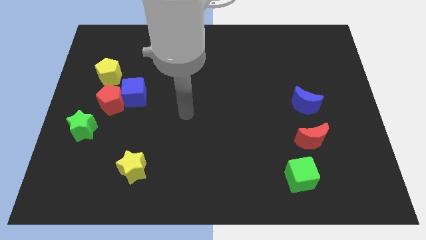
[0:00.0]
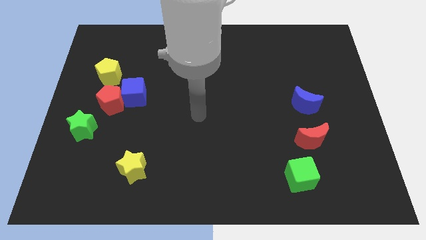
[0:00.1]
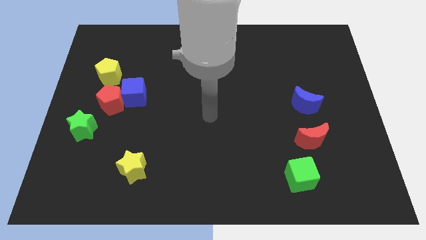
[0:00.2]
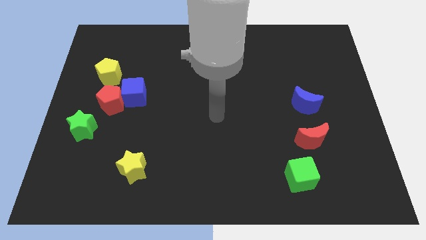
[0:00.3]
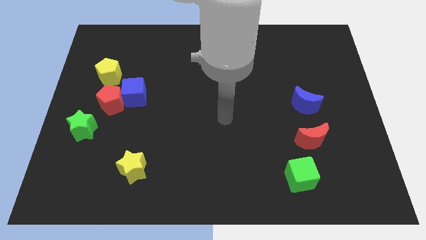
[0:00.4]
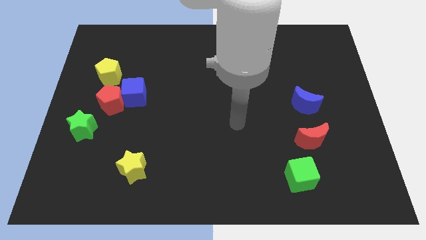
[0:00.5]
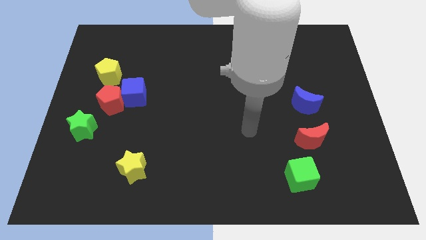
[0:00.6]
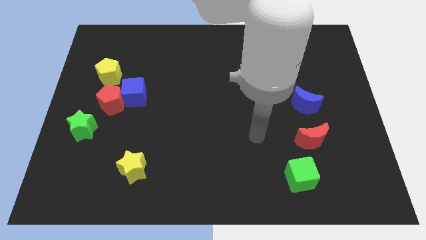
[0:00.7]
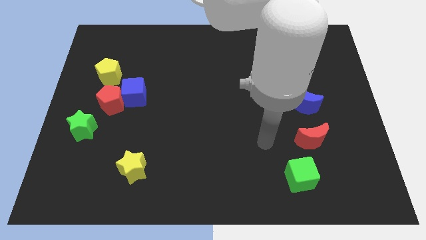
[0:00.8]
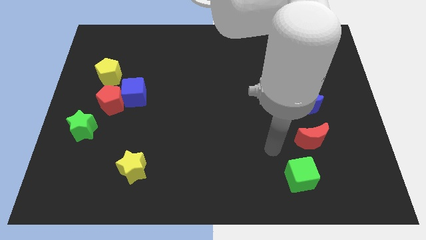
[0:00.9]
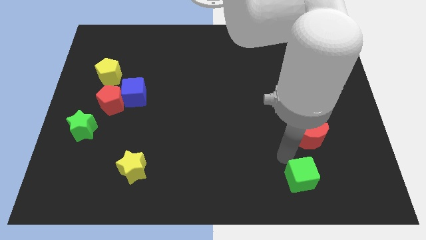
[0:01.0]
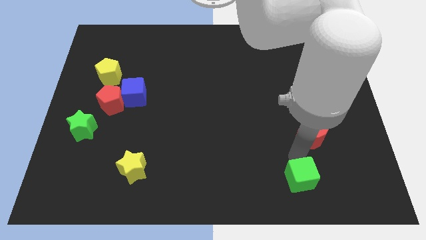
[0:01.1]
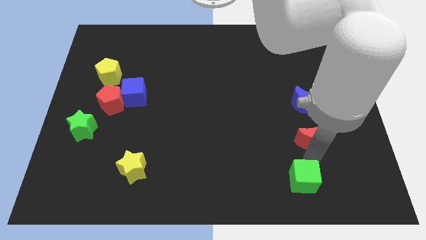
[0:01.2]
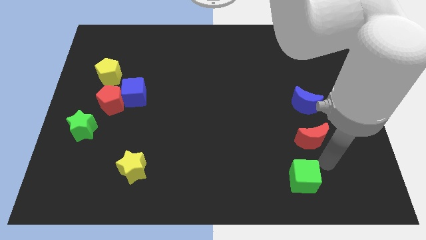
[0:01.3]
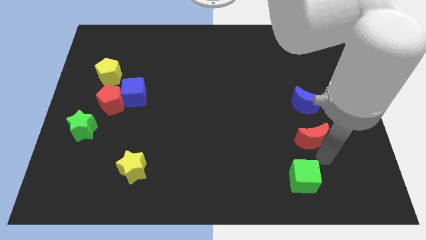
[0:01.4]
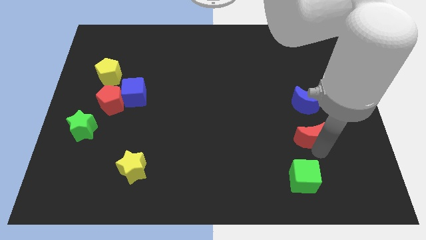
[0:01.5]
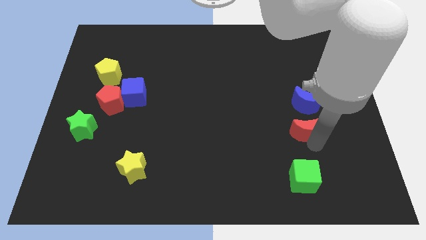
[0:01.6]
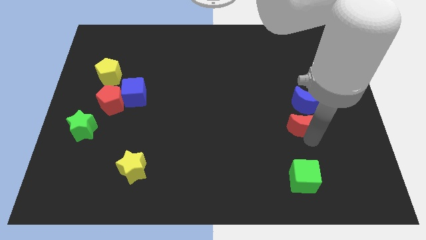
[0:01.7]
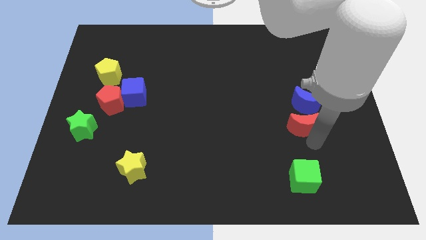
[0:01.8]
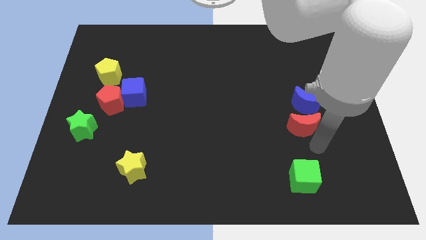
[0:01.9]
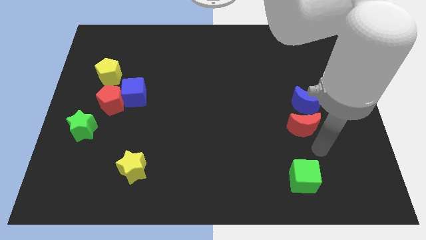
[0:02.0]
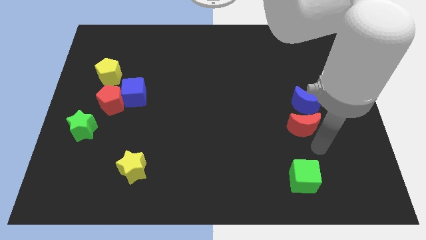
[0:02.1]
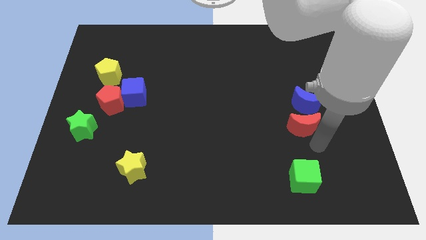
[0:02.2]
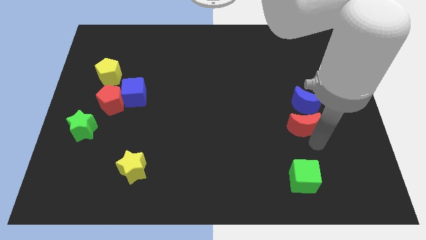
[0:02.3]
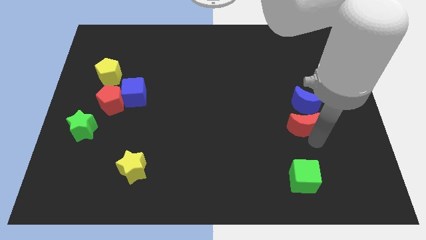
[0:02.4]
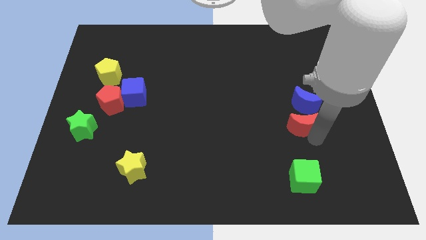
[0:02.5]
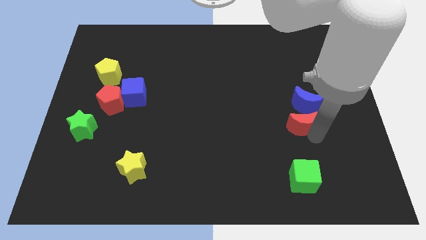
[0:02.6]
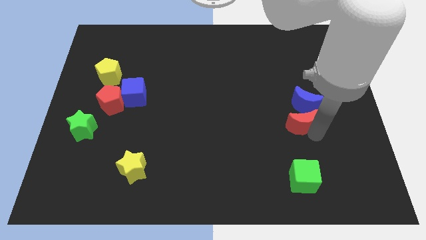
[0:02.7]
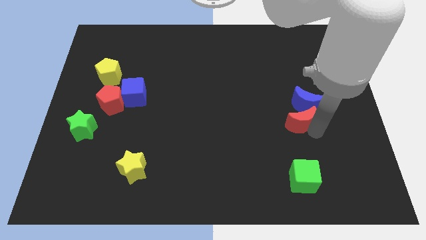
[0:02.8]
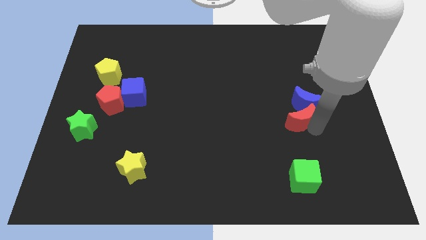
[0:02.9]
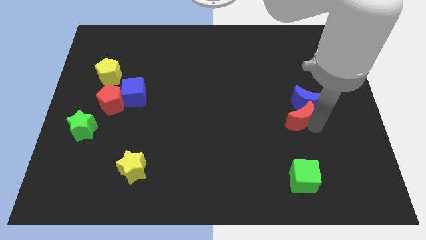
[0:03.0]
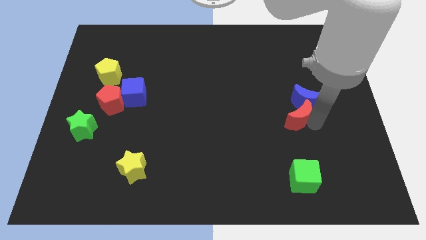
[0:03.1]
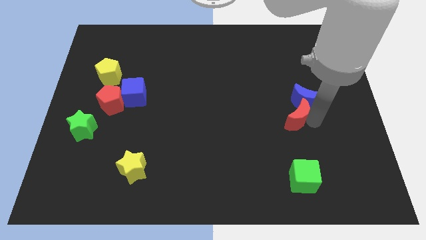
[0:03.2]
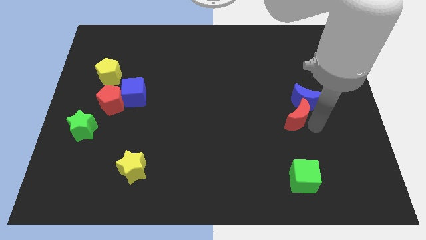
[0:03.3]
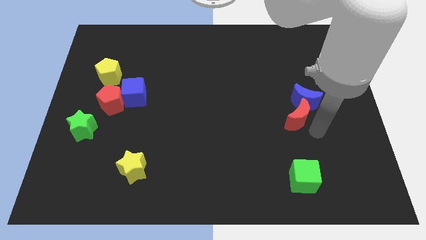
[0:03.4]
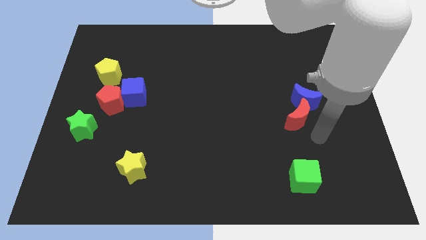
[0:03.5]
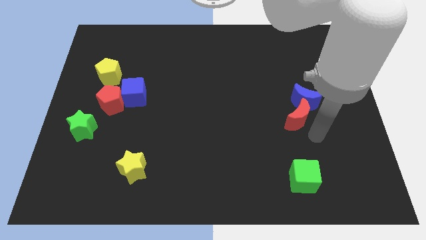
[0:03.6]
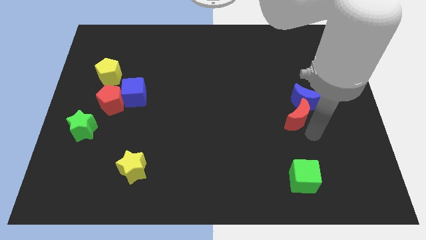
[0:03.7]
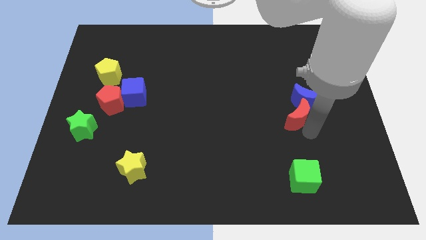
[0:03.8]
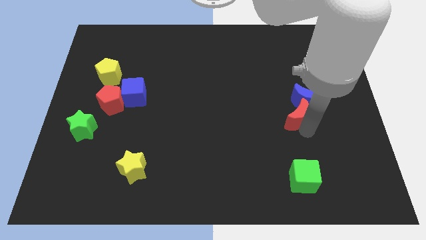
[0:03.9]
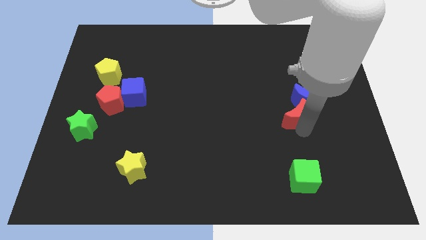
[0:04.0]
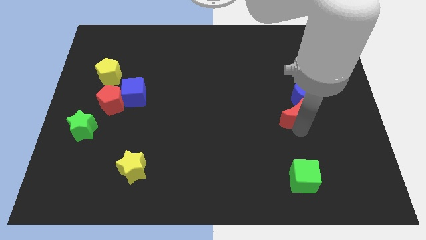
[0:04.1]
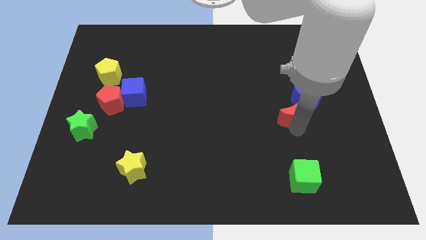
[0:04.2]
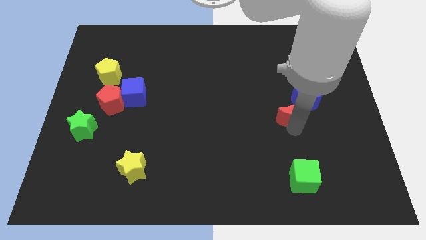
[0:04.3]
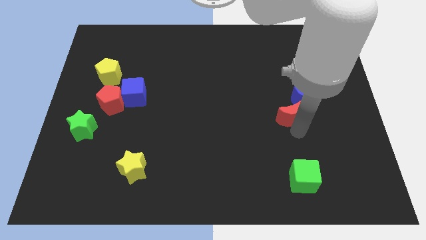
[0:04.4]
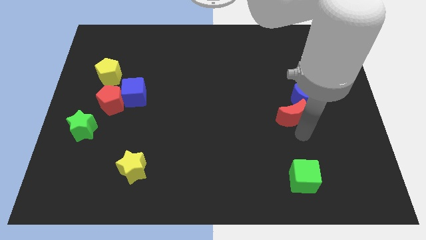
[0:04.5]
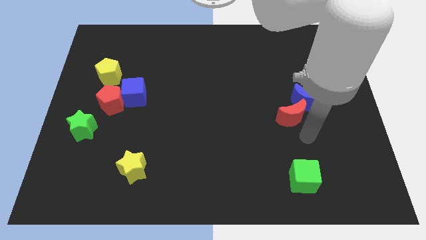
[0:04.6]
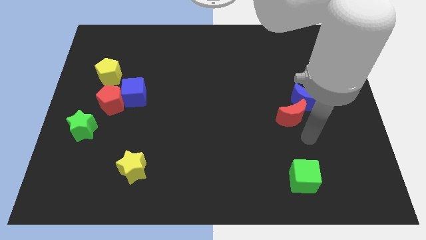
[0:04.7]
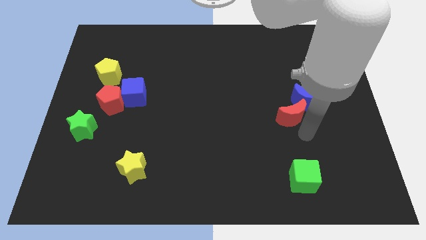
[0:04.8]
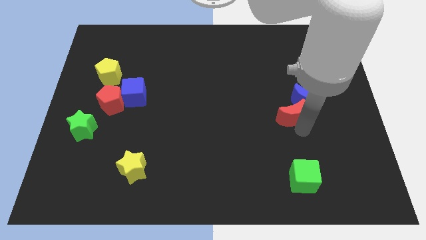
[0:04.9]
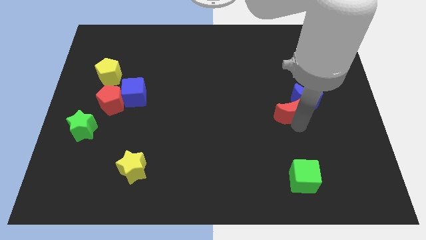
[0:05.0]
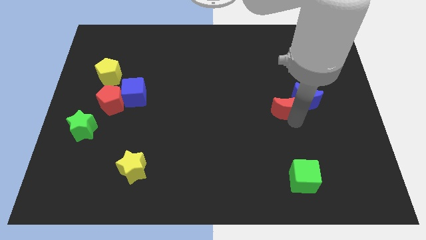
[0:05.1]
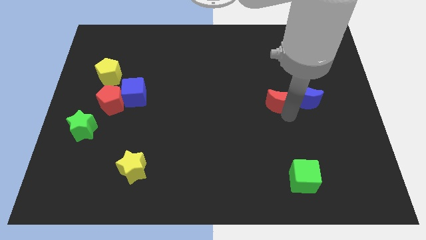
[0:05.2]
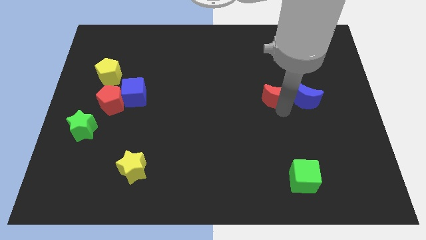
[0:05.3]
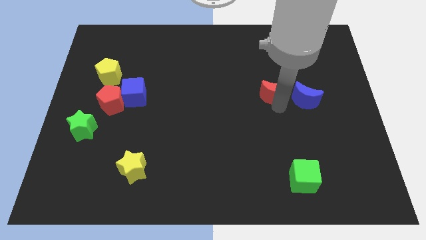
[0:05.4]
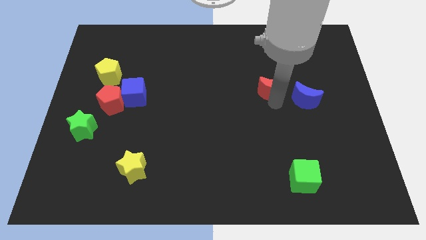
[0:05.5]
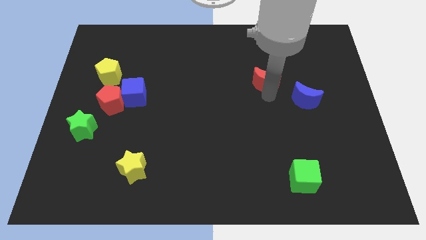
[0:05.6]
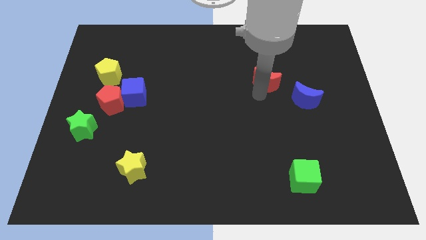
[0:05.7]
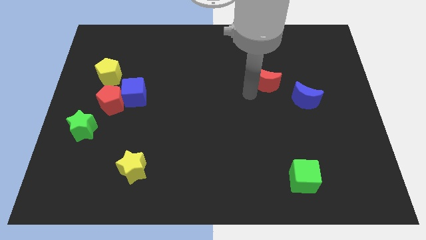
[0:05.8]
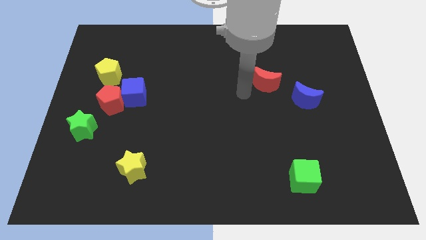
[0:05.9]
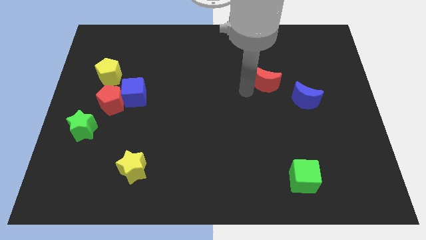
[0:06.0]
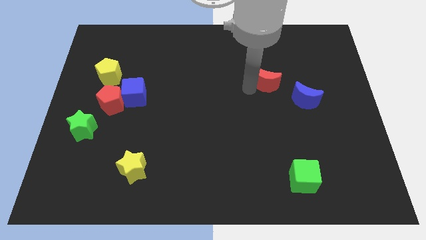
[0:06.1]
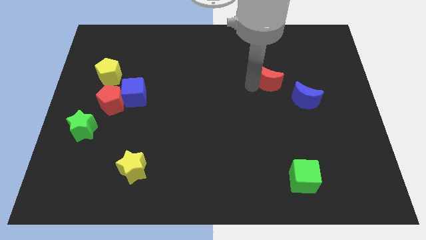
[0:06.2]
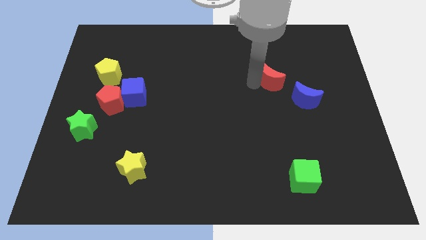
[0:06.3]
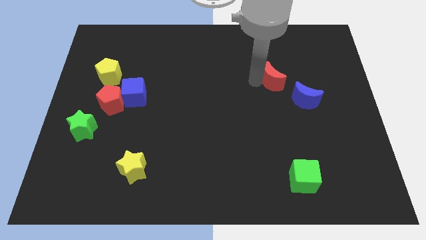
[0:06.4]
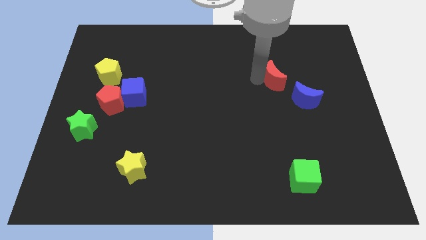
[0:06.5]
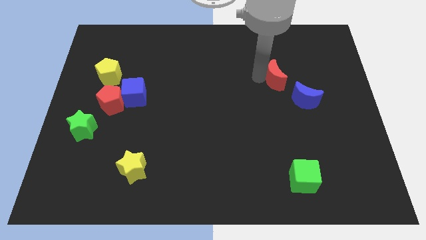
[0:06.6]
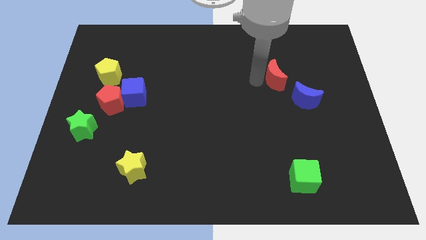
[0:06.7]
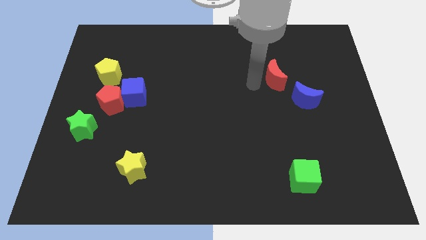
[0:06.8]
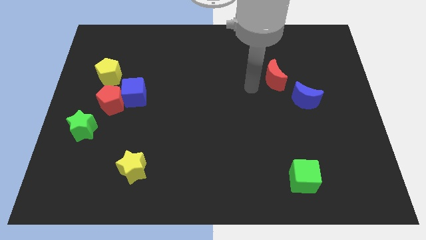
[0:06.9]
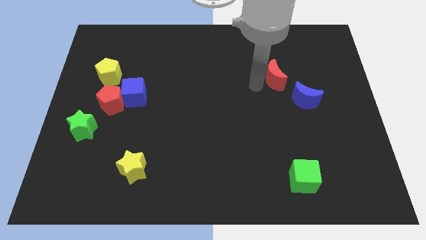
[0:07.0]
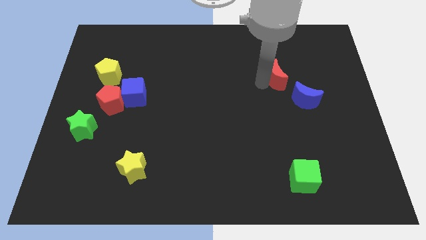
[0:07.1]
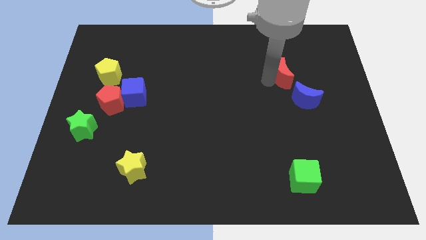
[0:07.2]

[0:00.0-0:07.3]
put the red moon above the blue moon
